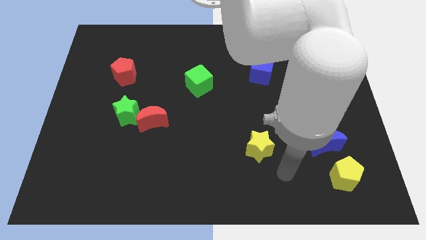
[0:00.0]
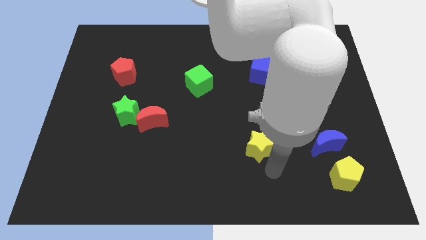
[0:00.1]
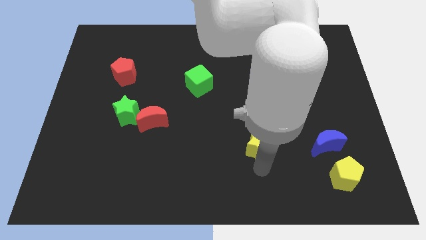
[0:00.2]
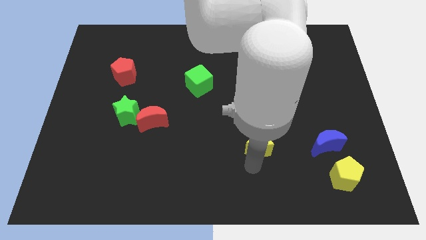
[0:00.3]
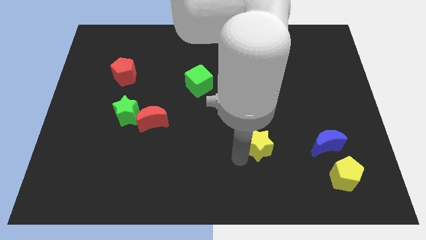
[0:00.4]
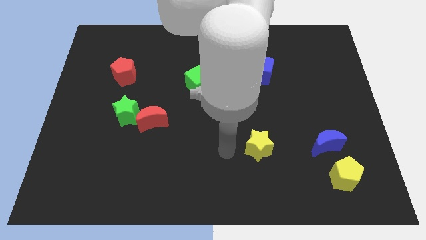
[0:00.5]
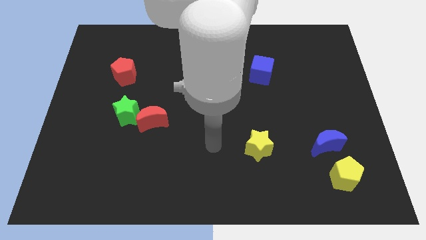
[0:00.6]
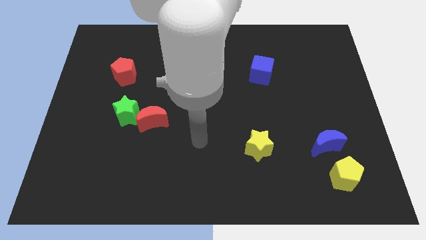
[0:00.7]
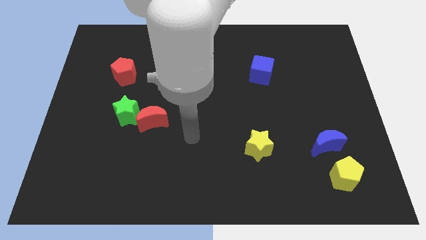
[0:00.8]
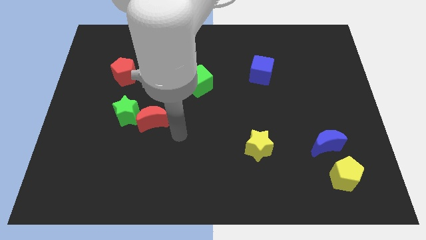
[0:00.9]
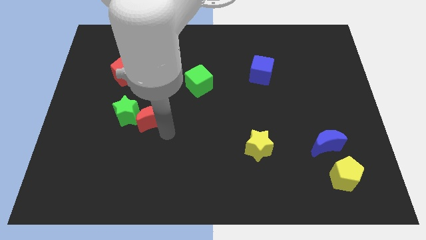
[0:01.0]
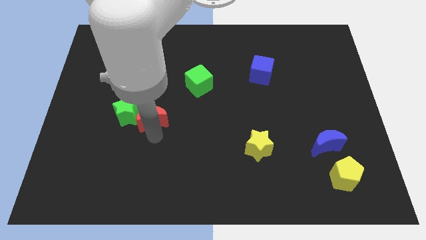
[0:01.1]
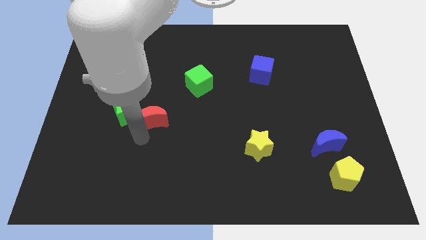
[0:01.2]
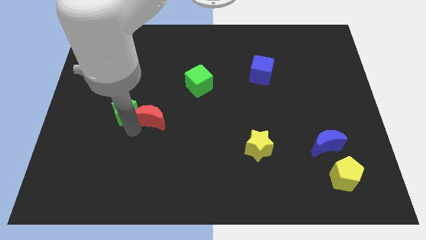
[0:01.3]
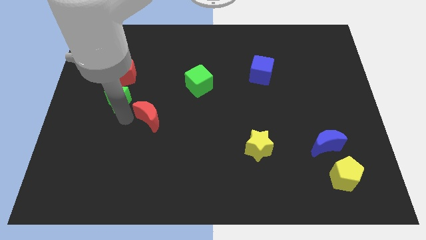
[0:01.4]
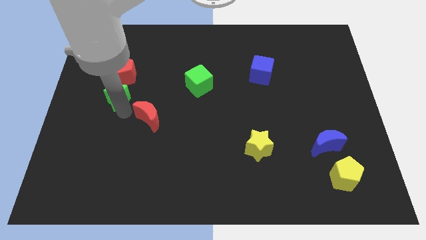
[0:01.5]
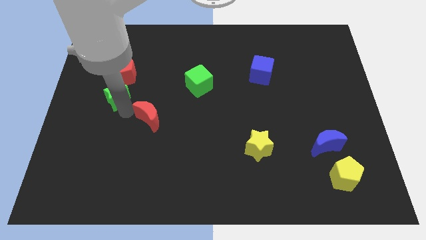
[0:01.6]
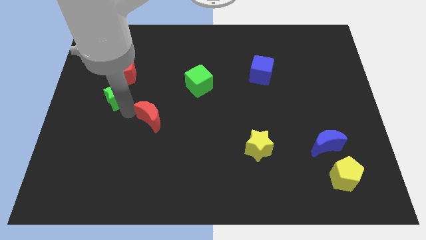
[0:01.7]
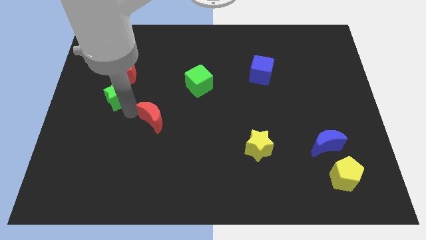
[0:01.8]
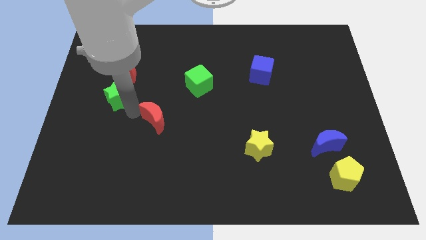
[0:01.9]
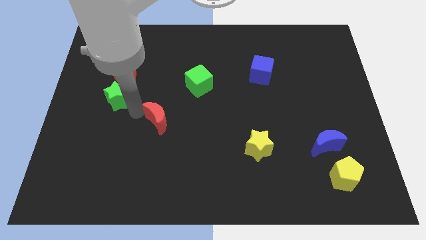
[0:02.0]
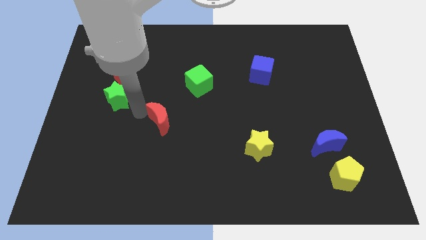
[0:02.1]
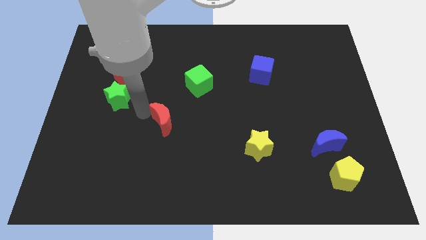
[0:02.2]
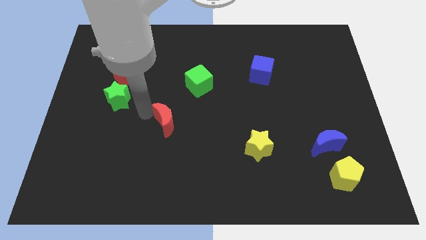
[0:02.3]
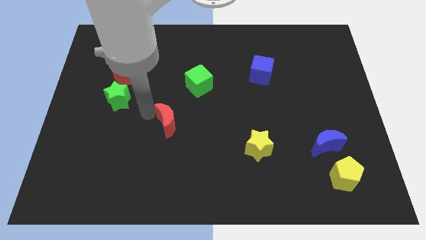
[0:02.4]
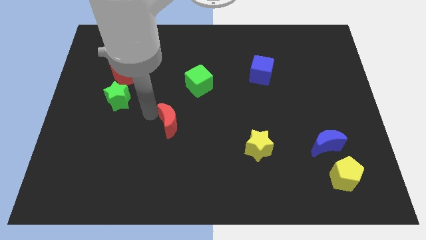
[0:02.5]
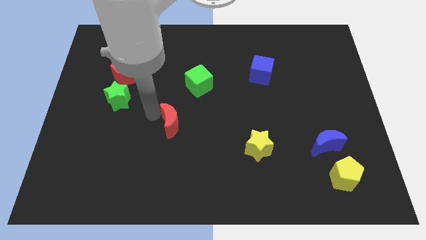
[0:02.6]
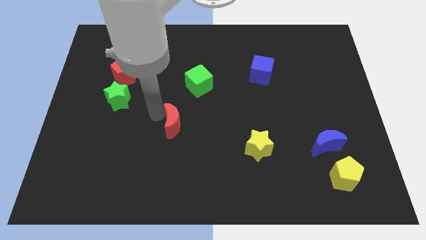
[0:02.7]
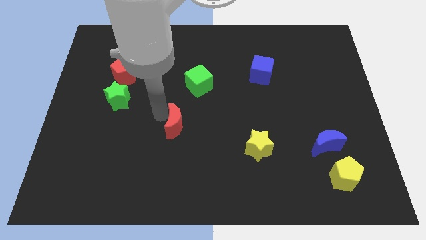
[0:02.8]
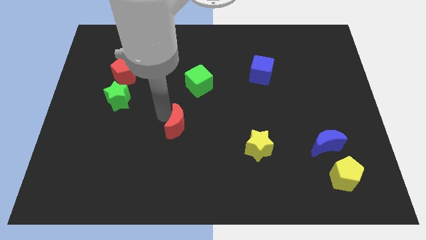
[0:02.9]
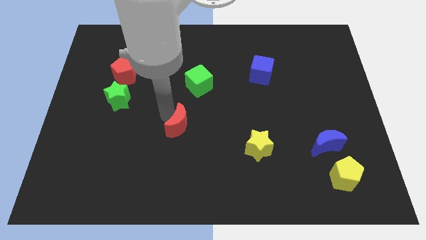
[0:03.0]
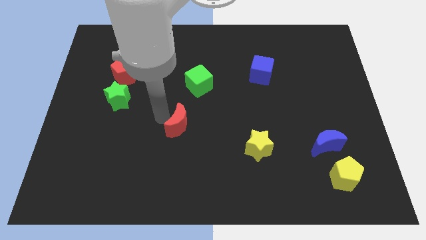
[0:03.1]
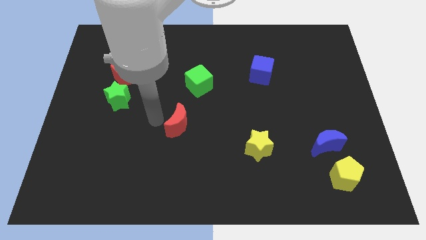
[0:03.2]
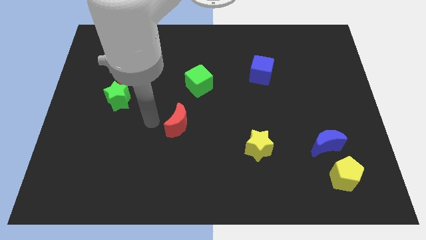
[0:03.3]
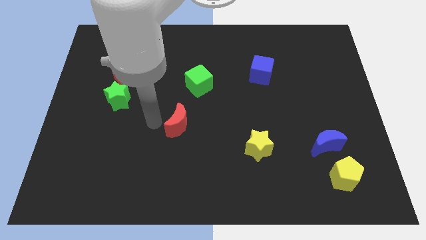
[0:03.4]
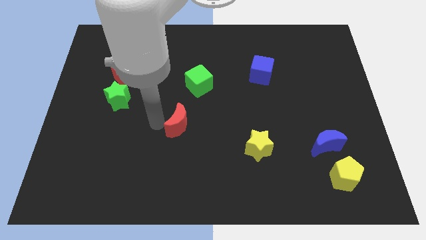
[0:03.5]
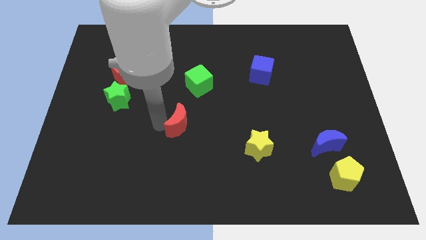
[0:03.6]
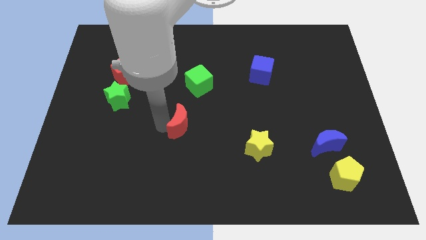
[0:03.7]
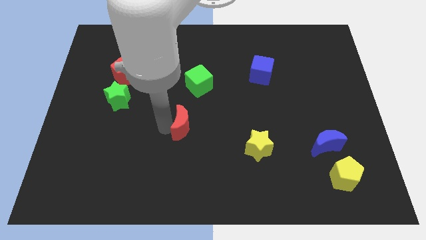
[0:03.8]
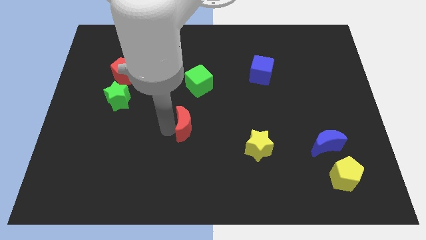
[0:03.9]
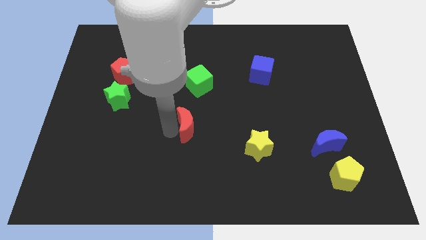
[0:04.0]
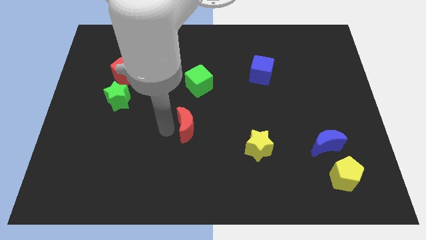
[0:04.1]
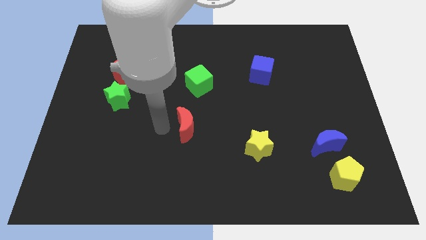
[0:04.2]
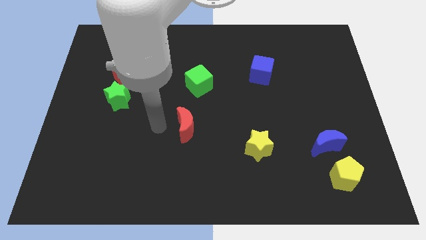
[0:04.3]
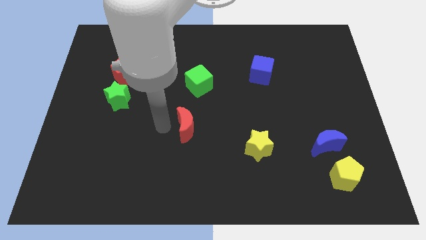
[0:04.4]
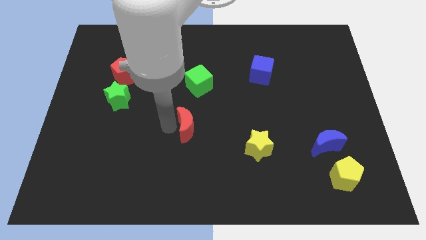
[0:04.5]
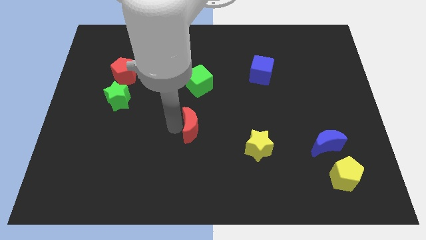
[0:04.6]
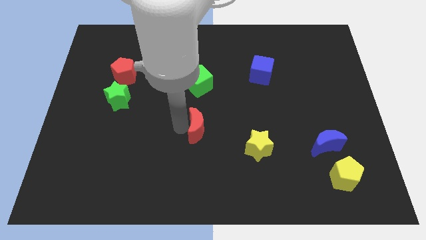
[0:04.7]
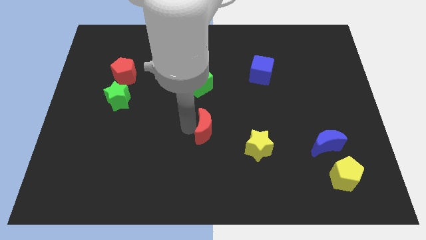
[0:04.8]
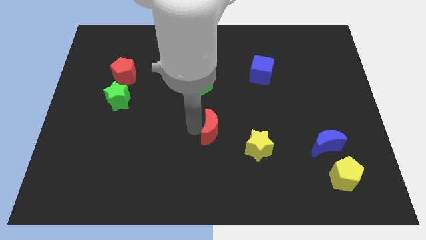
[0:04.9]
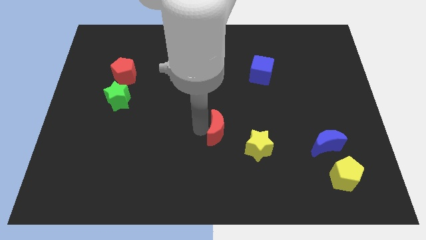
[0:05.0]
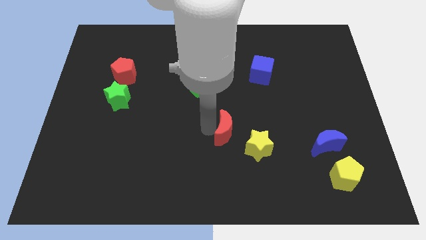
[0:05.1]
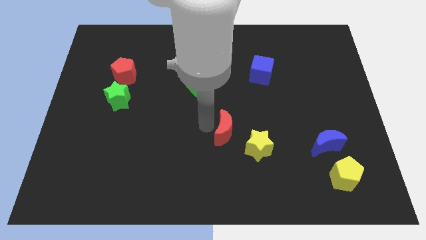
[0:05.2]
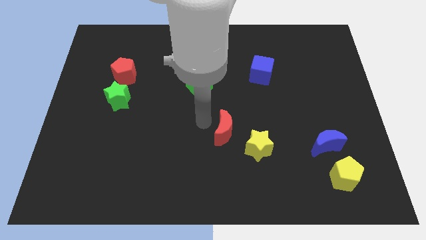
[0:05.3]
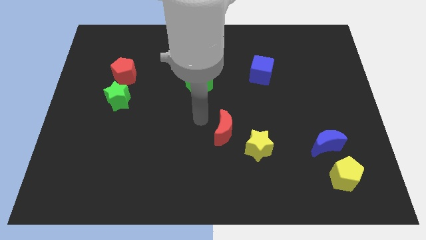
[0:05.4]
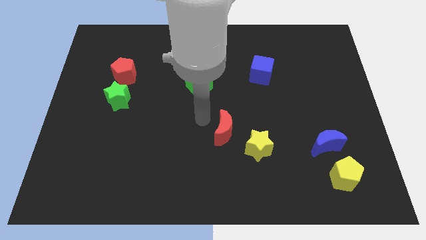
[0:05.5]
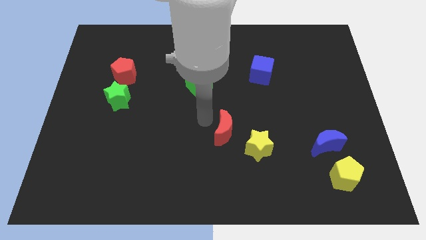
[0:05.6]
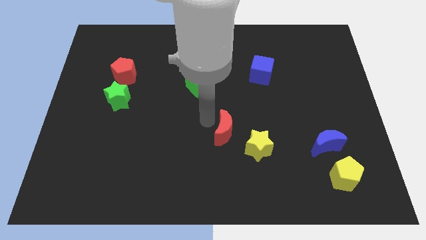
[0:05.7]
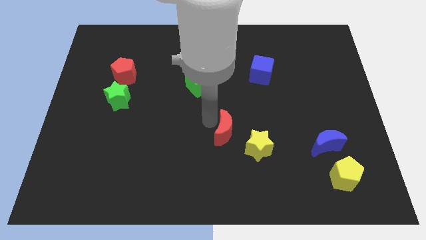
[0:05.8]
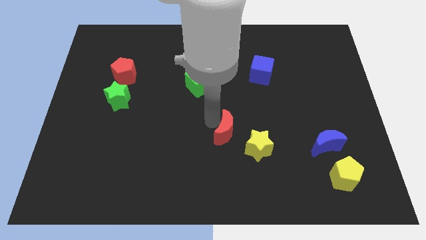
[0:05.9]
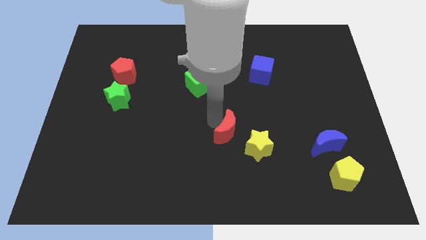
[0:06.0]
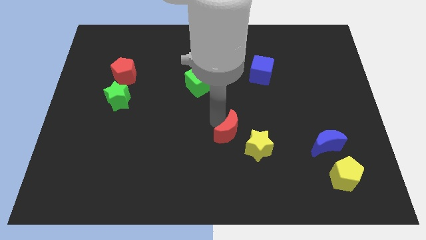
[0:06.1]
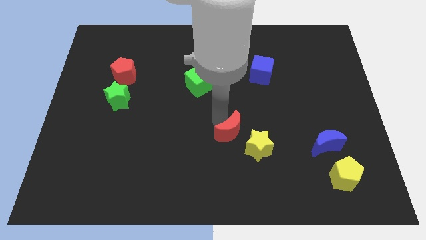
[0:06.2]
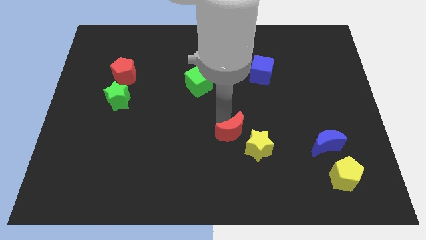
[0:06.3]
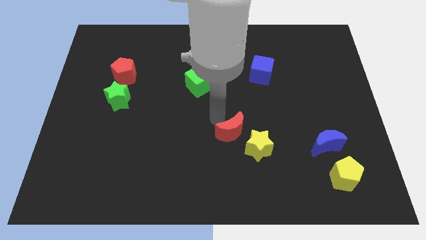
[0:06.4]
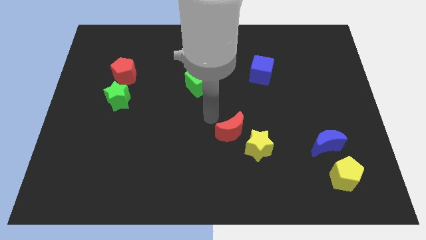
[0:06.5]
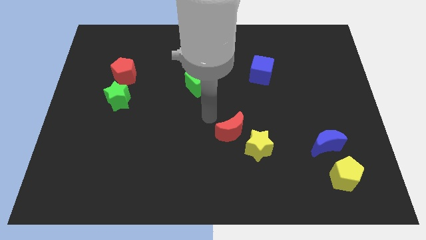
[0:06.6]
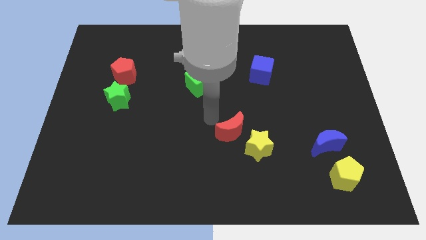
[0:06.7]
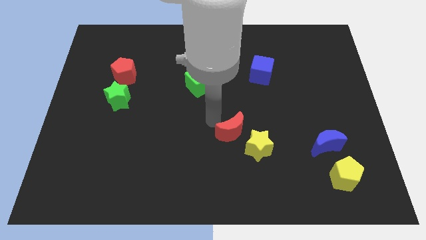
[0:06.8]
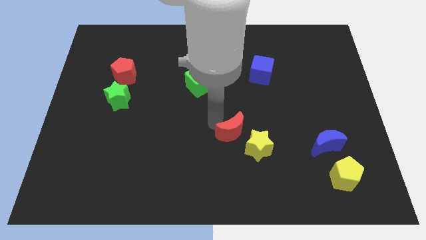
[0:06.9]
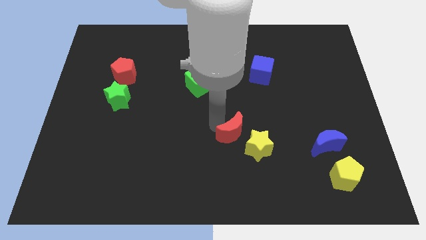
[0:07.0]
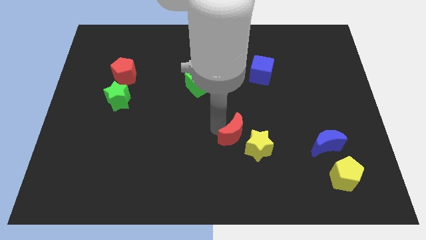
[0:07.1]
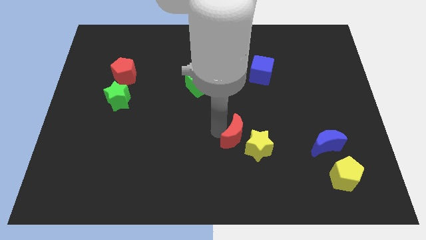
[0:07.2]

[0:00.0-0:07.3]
put the red moon next to the yellow star
